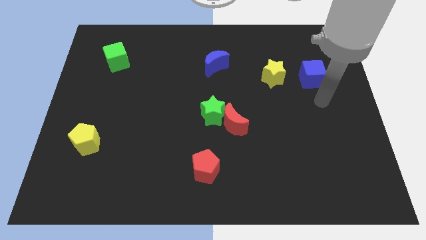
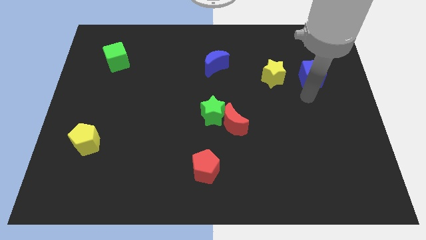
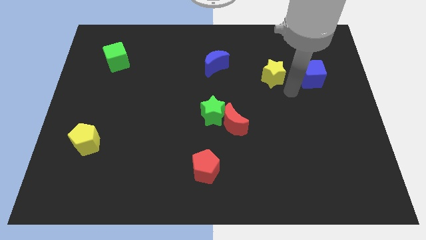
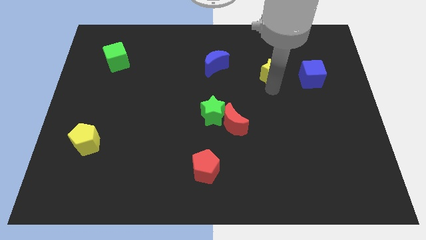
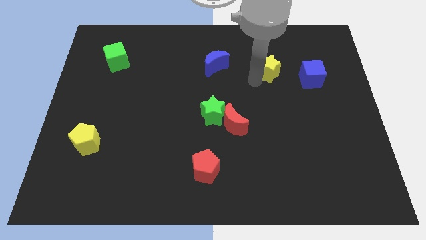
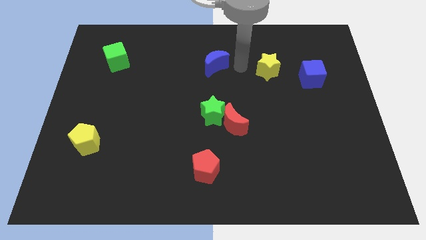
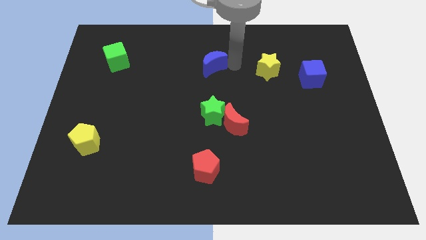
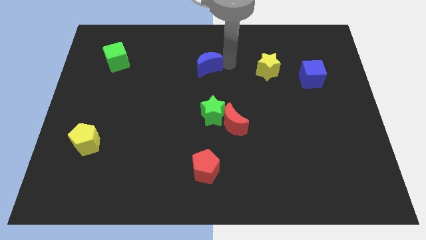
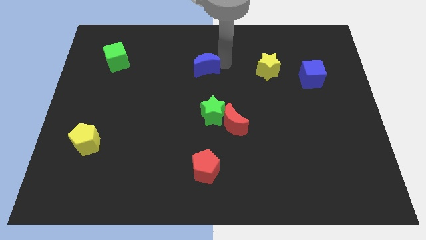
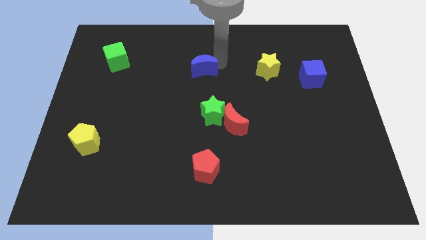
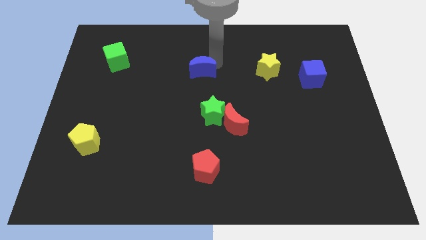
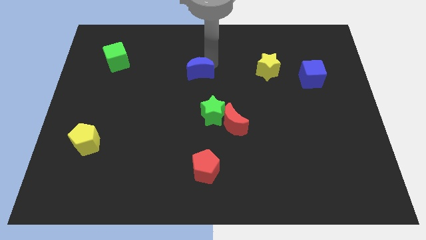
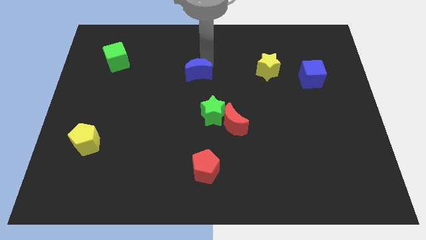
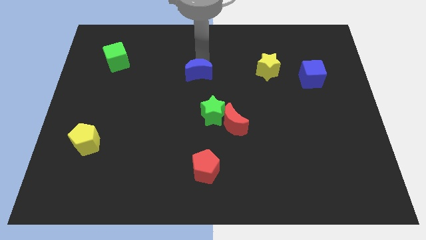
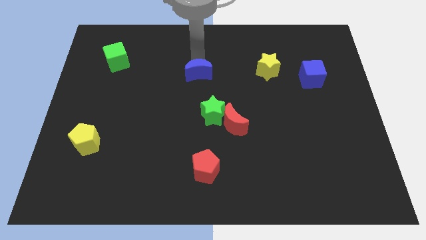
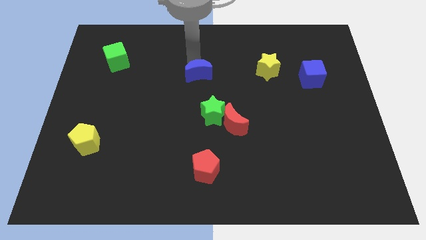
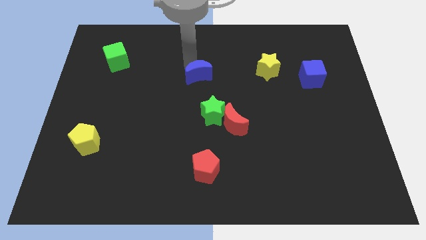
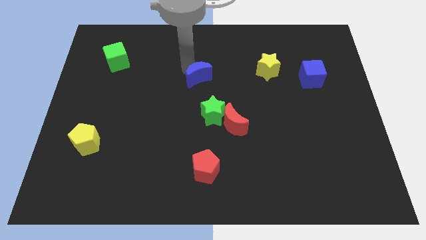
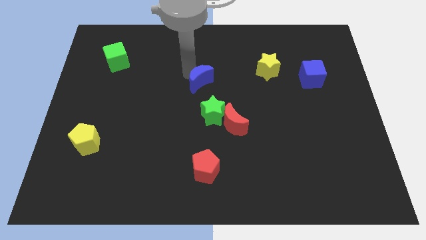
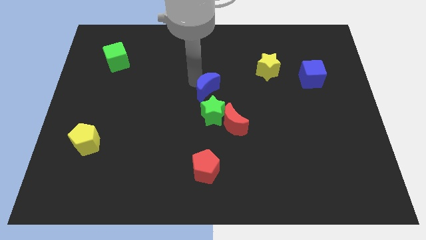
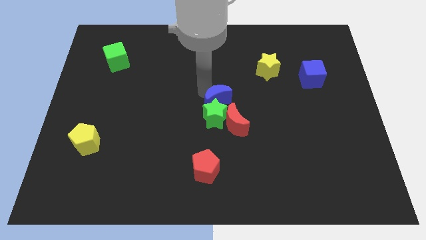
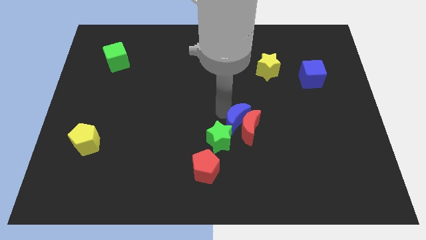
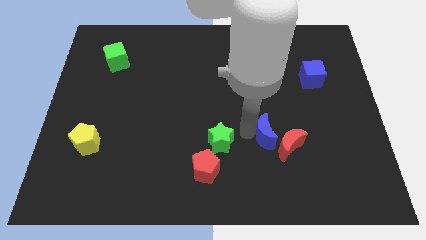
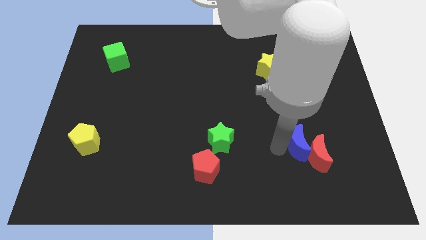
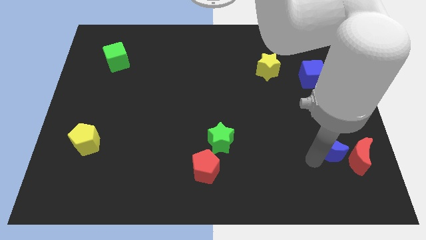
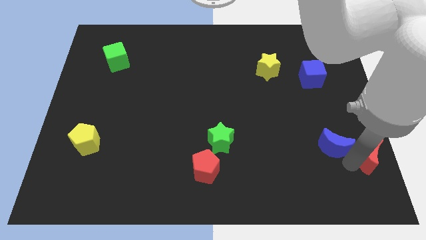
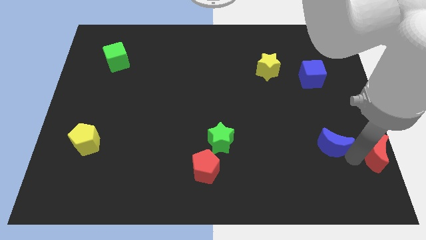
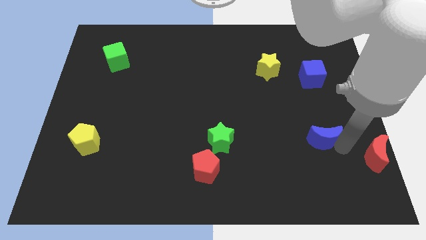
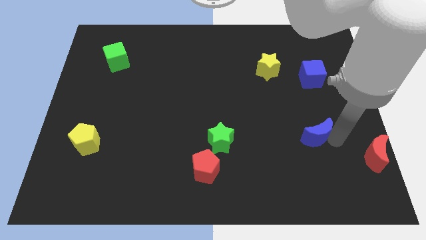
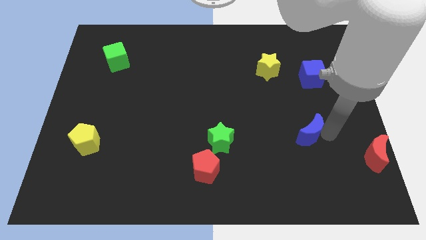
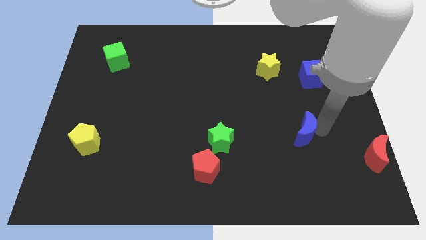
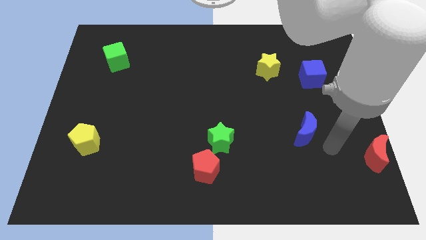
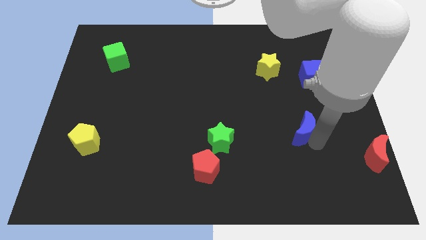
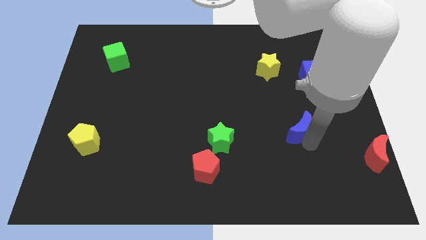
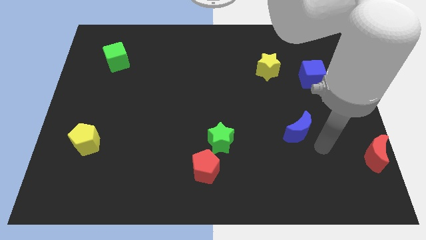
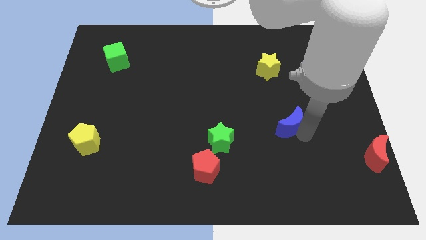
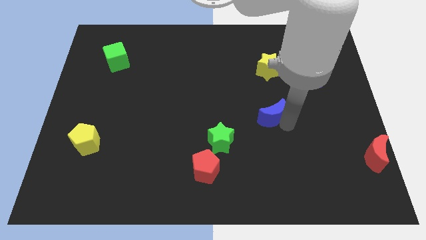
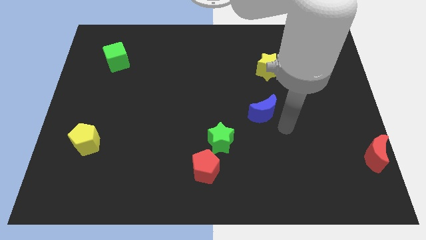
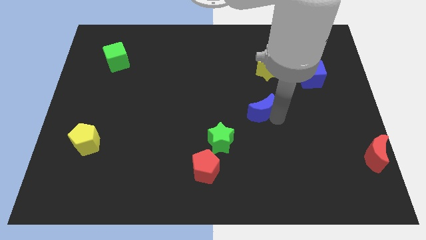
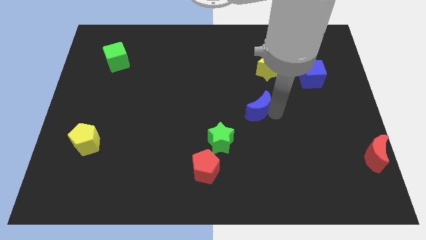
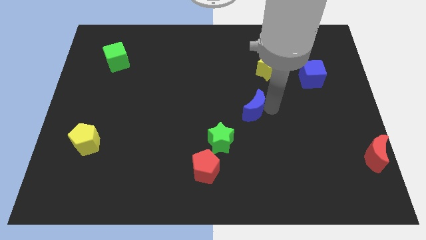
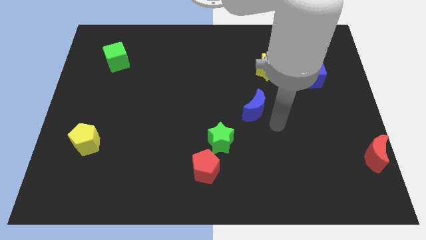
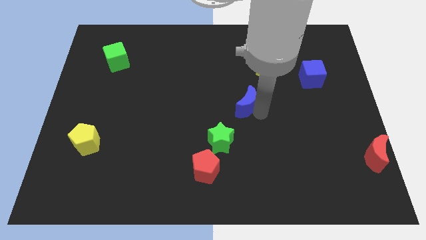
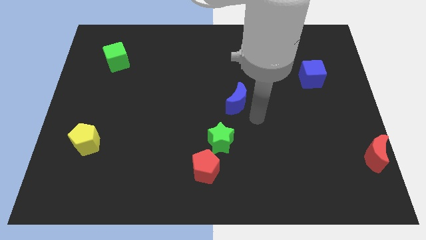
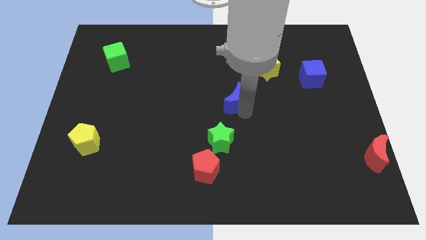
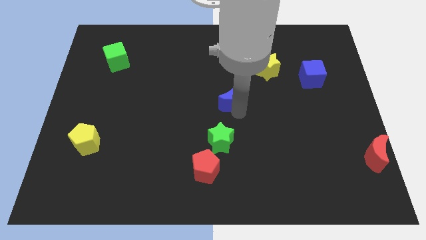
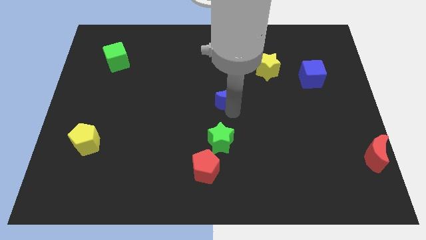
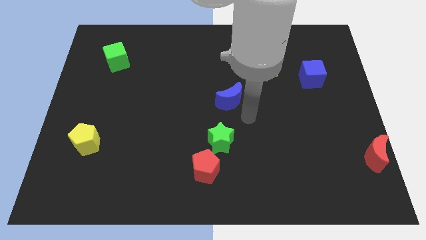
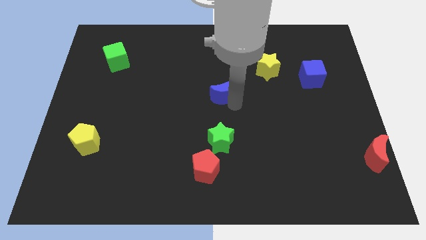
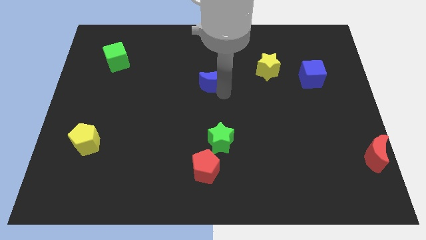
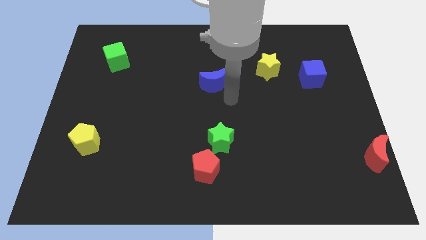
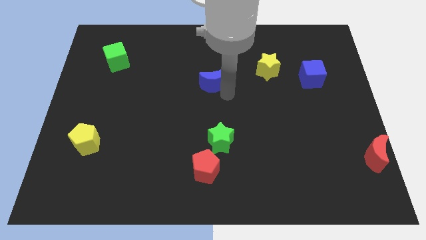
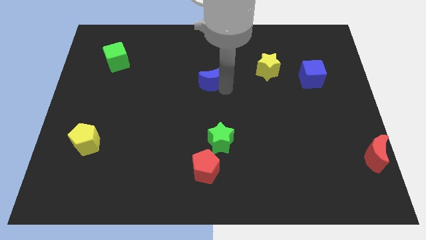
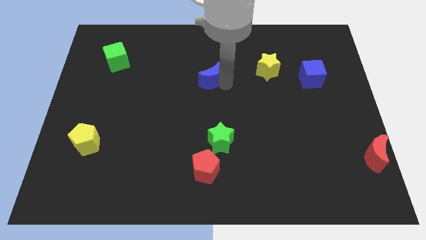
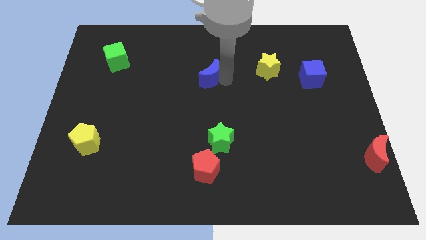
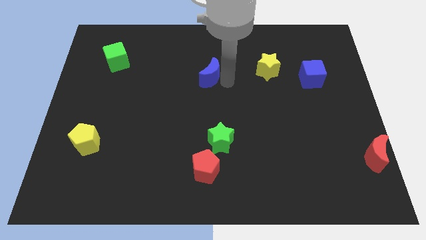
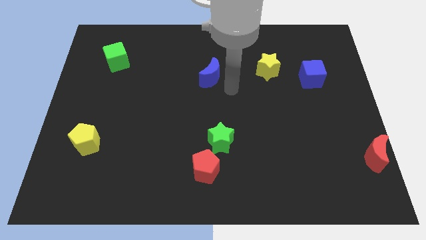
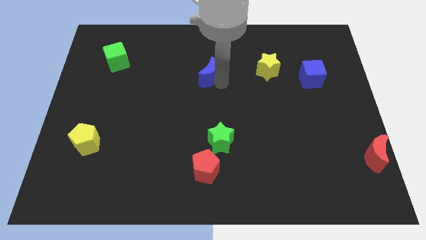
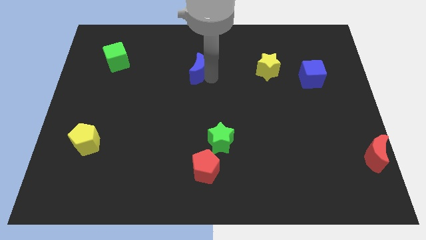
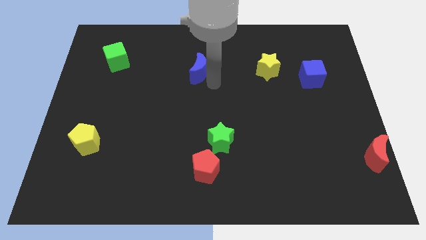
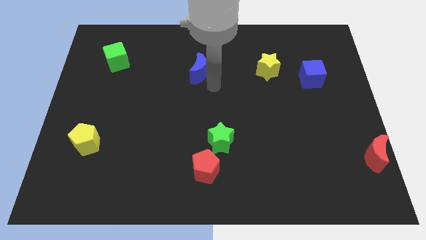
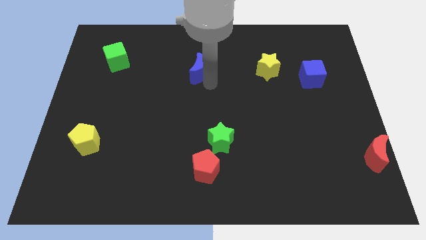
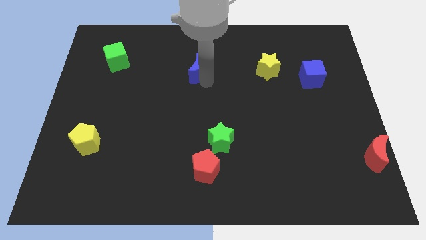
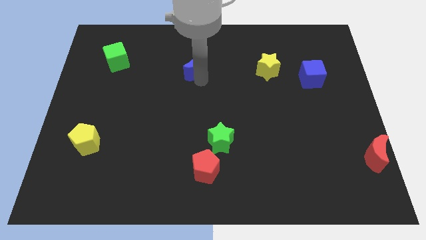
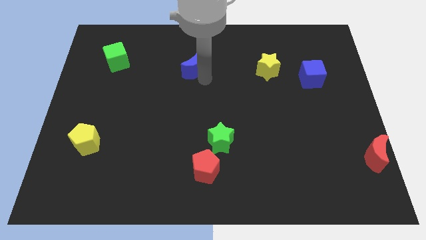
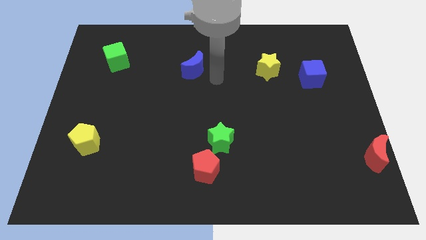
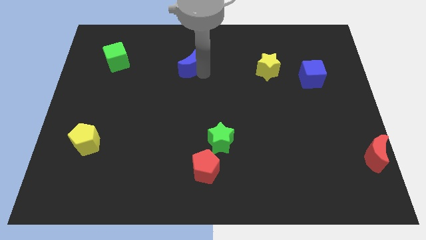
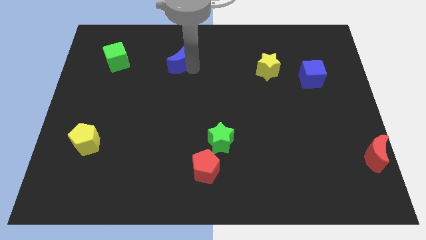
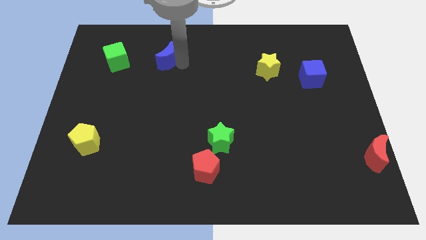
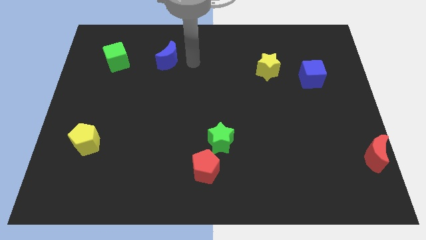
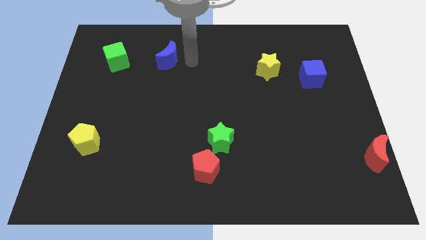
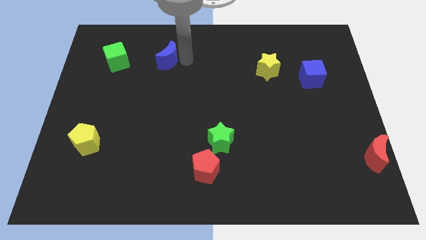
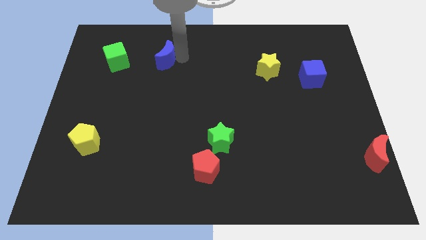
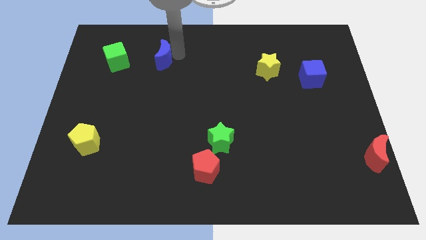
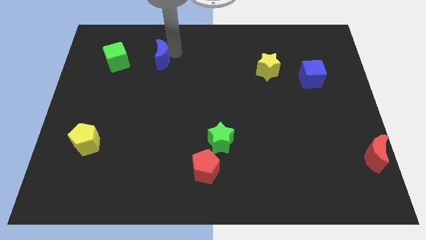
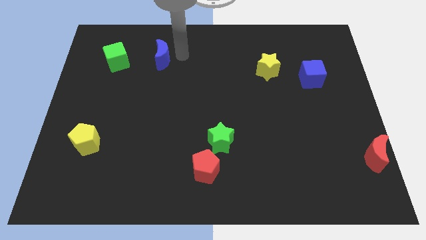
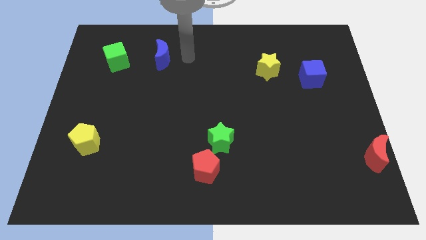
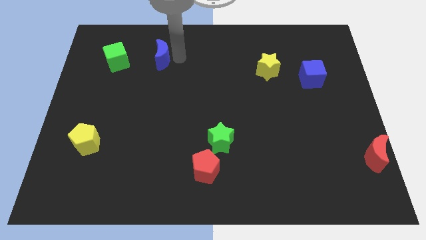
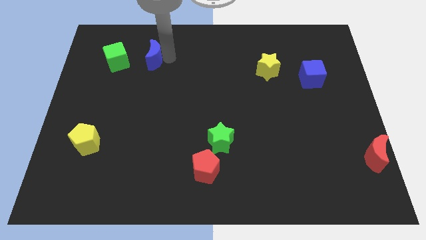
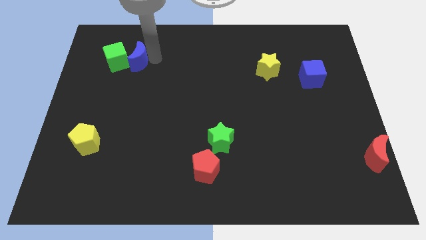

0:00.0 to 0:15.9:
push the blue moon to the green cube
